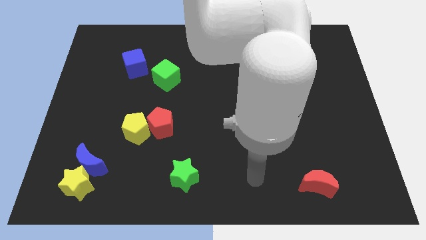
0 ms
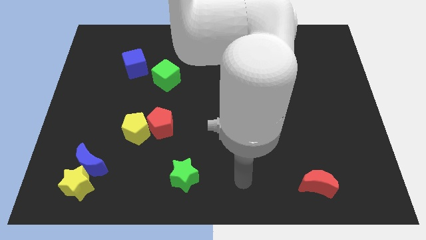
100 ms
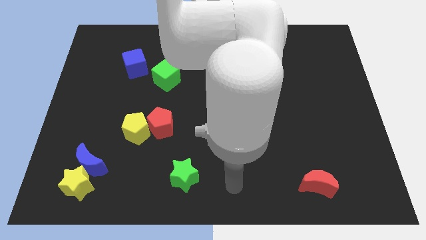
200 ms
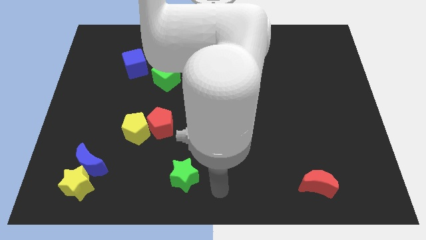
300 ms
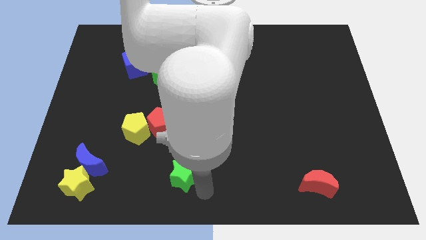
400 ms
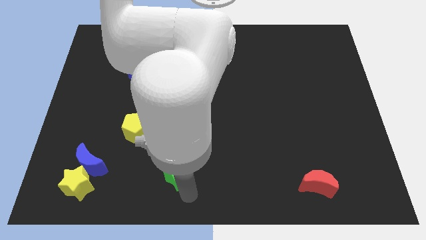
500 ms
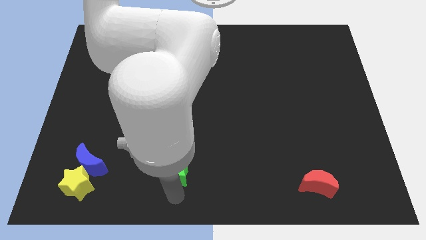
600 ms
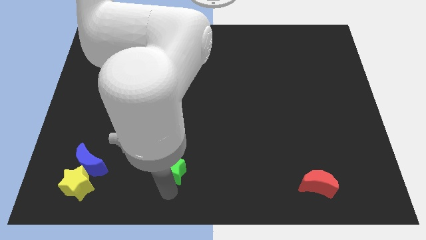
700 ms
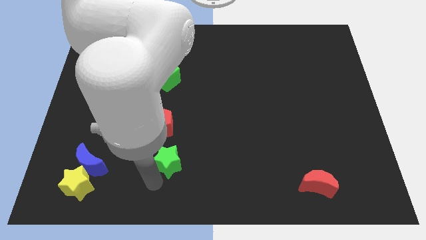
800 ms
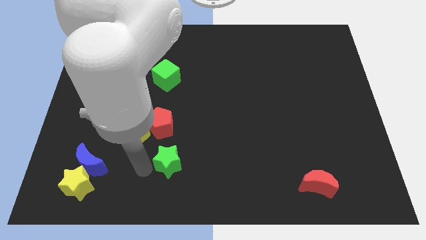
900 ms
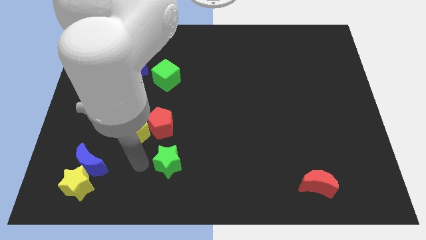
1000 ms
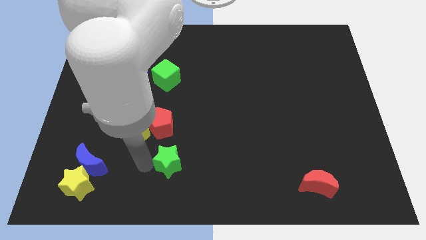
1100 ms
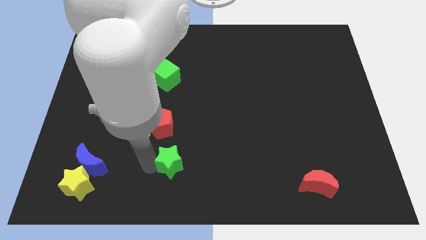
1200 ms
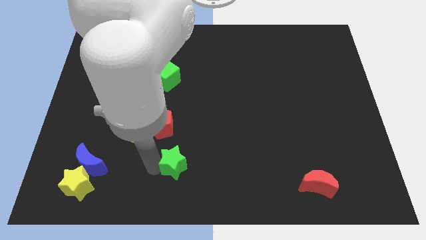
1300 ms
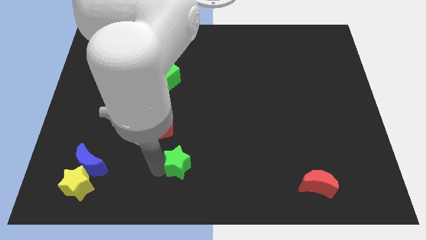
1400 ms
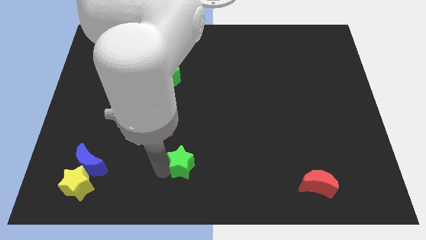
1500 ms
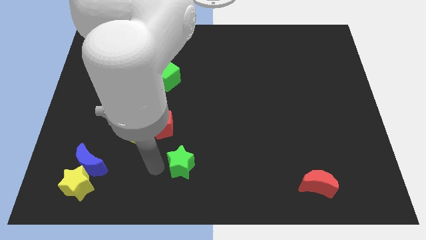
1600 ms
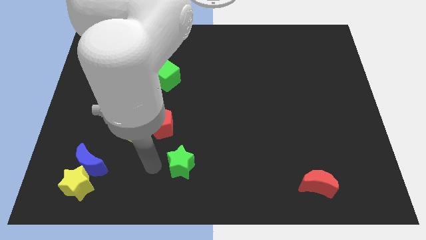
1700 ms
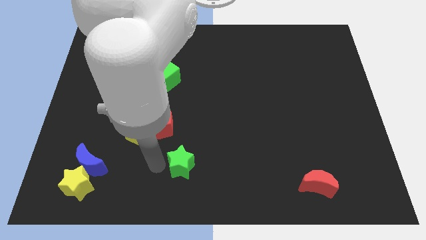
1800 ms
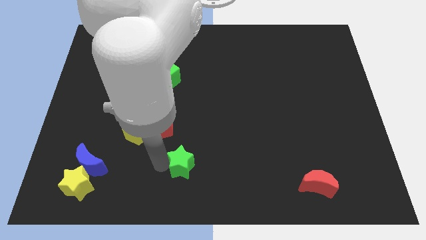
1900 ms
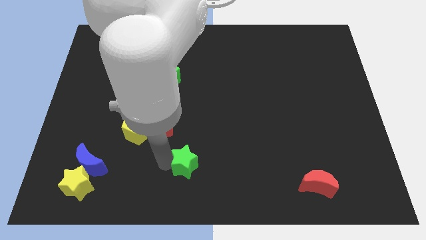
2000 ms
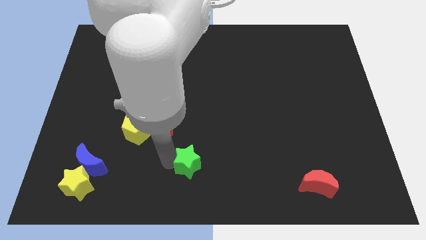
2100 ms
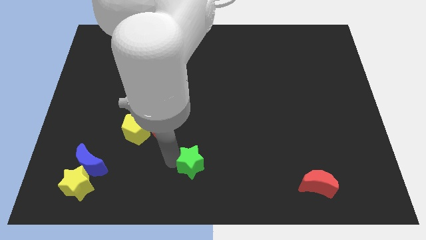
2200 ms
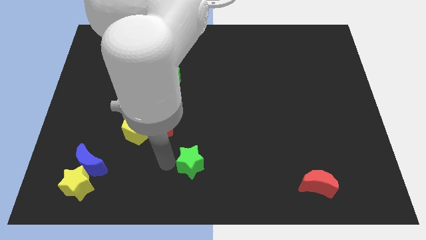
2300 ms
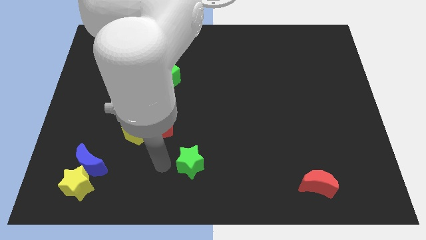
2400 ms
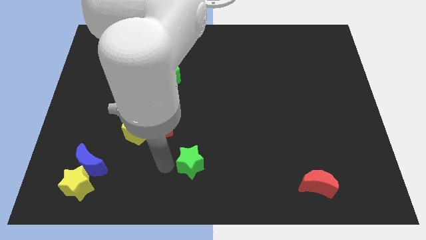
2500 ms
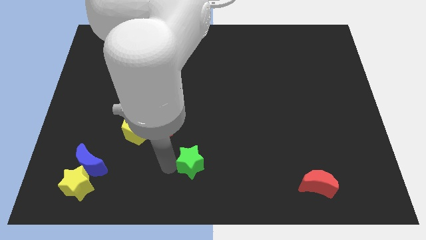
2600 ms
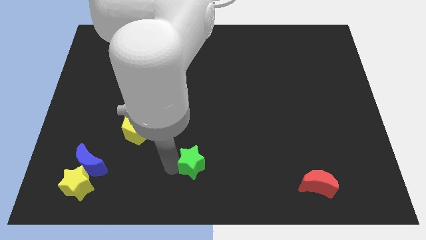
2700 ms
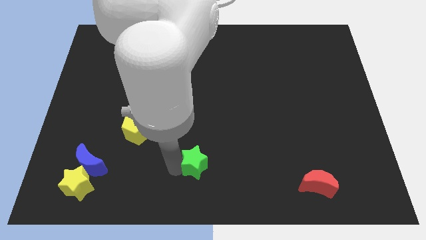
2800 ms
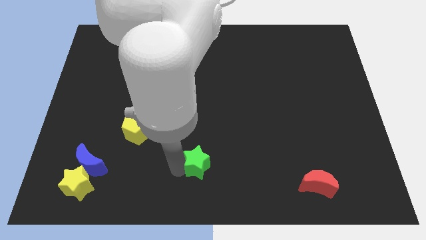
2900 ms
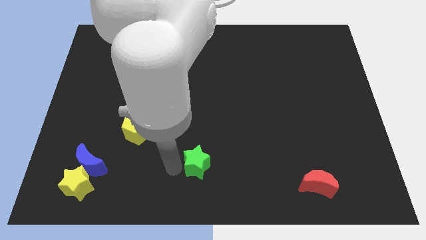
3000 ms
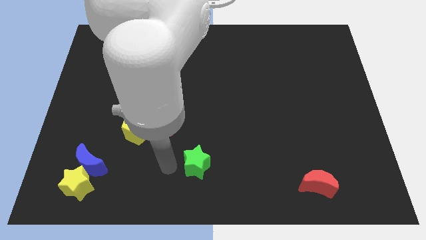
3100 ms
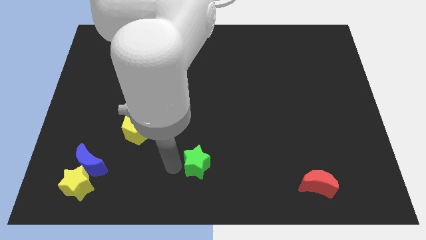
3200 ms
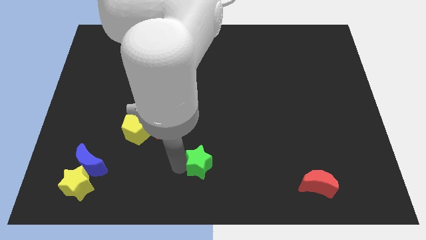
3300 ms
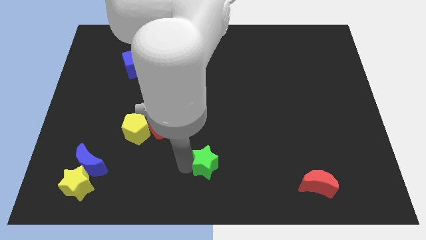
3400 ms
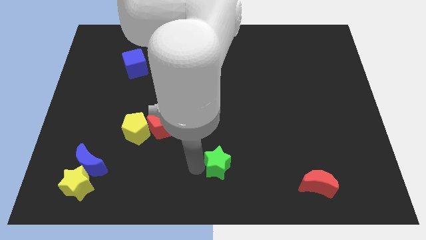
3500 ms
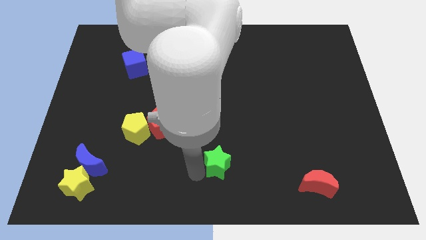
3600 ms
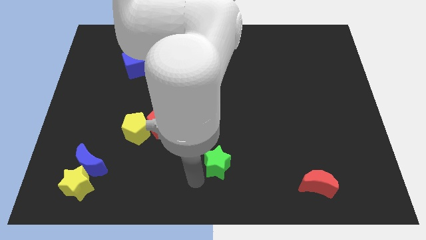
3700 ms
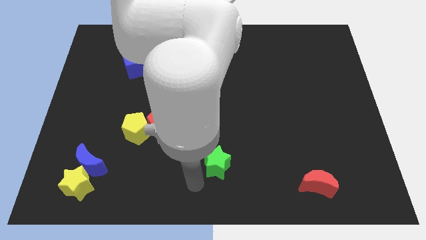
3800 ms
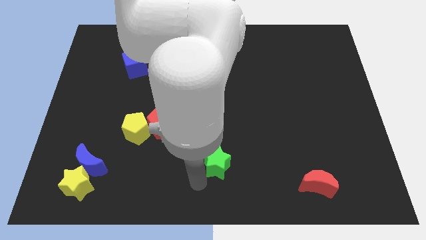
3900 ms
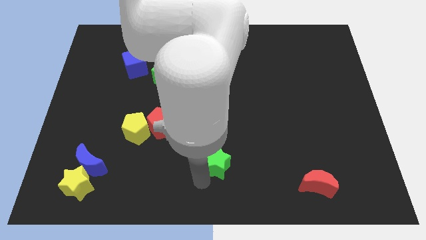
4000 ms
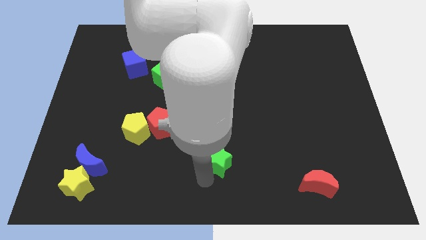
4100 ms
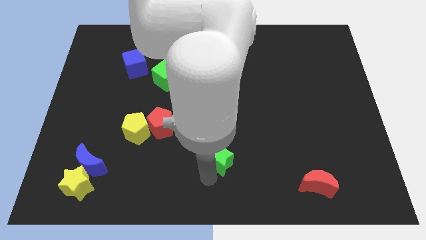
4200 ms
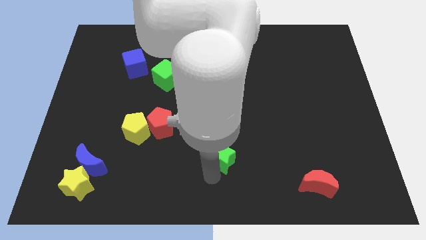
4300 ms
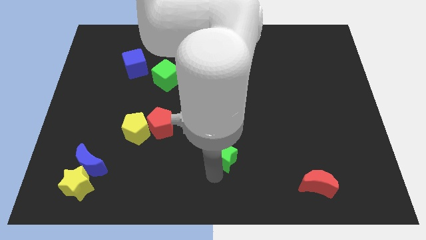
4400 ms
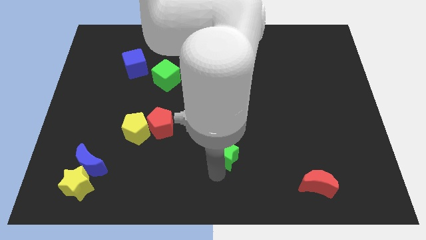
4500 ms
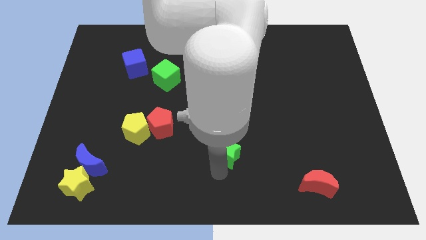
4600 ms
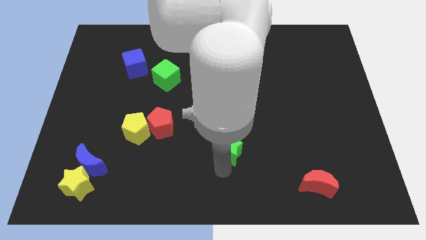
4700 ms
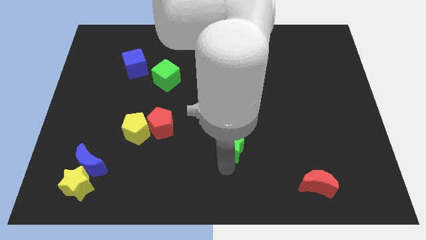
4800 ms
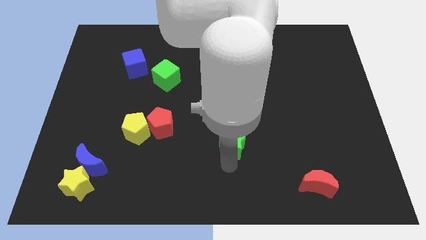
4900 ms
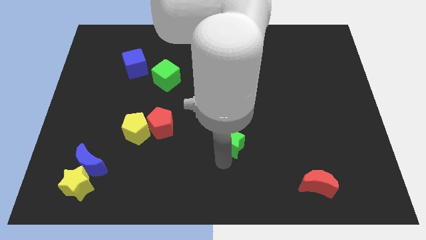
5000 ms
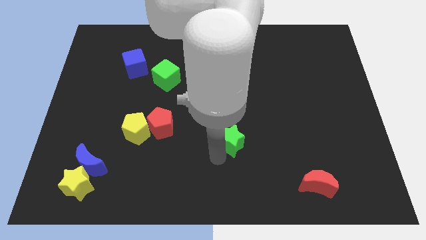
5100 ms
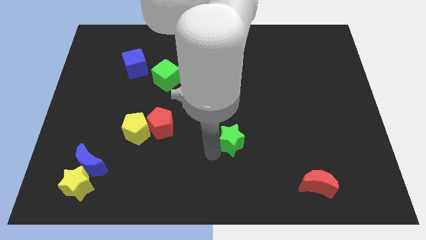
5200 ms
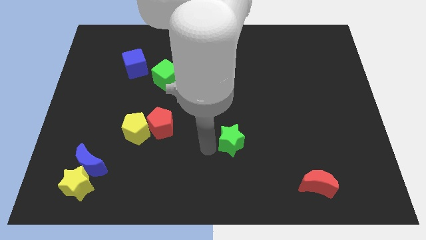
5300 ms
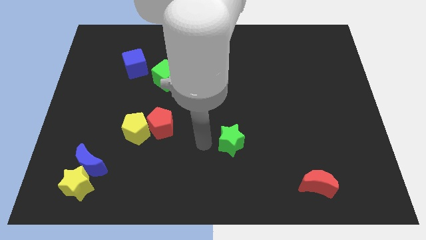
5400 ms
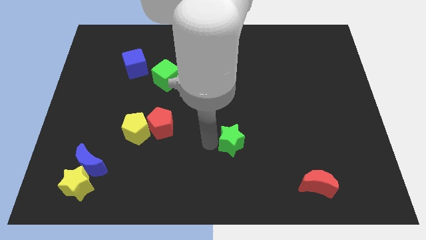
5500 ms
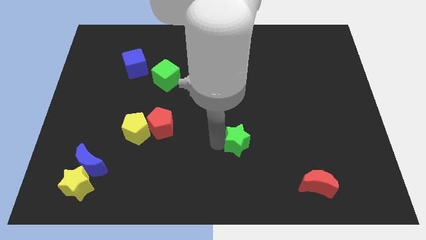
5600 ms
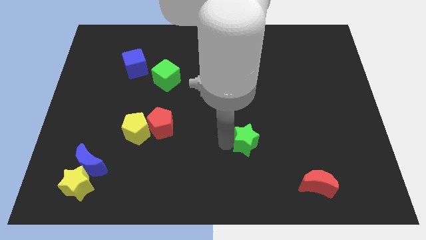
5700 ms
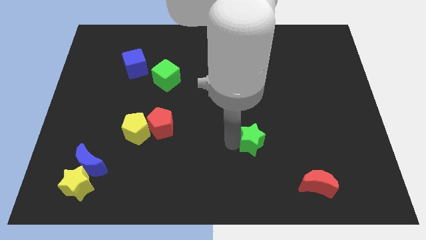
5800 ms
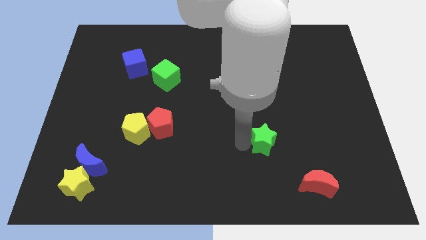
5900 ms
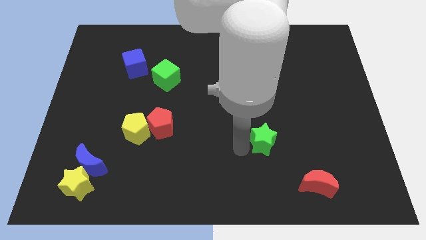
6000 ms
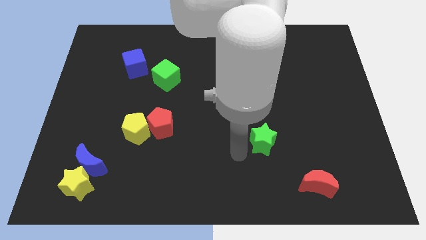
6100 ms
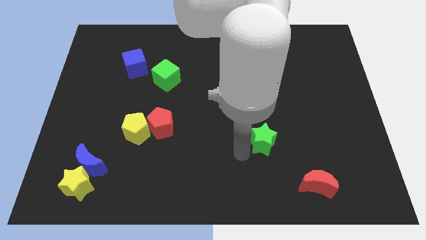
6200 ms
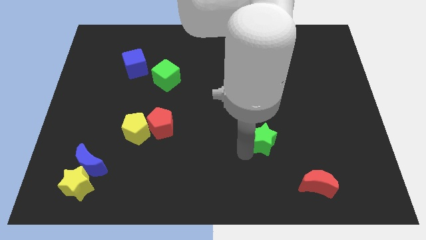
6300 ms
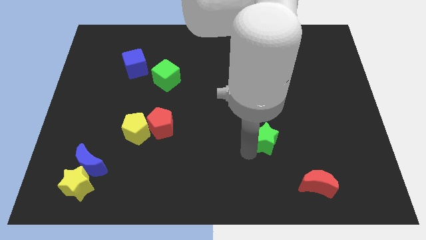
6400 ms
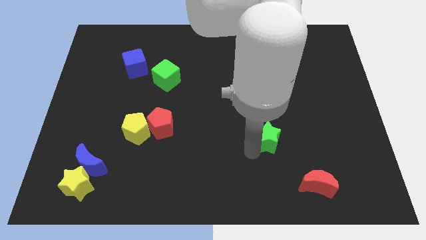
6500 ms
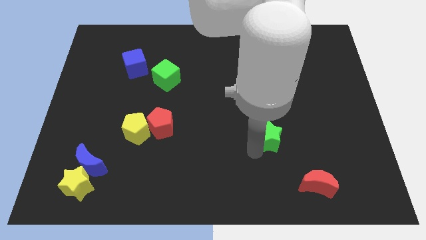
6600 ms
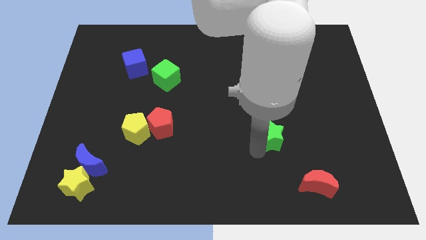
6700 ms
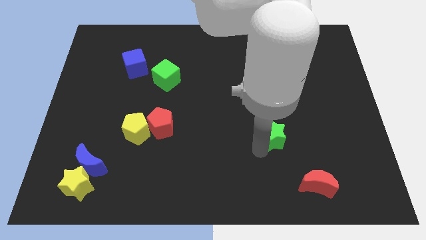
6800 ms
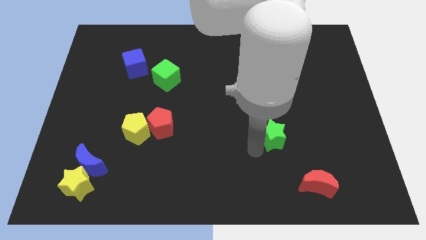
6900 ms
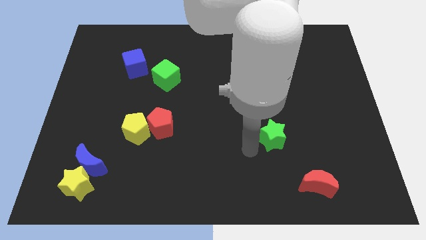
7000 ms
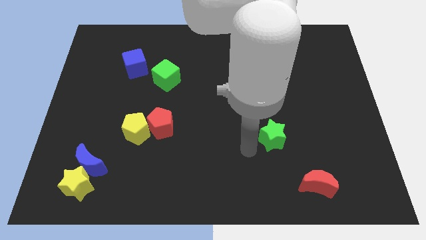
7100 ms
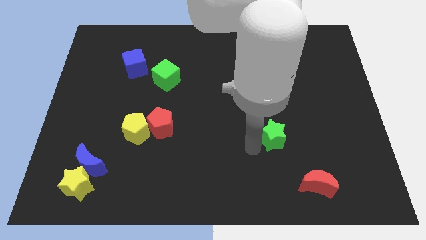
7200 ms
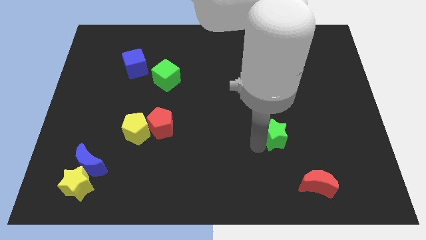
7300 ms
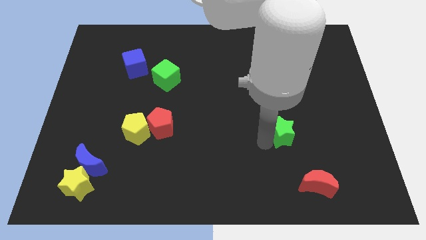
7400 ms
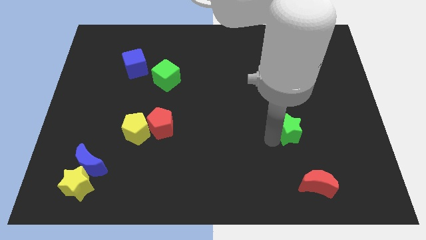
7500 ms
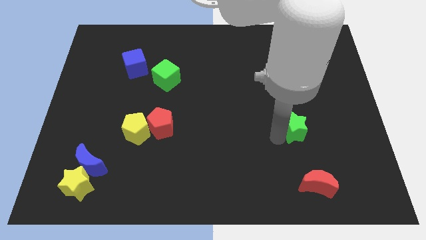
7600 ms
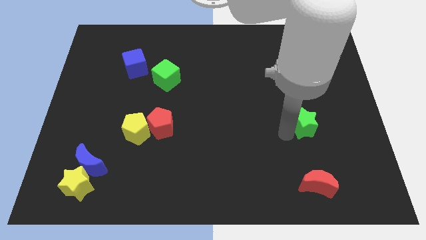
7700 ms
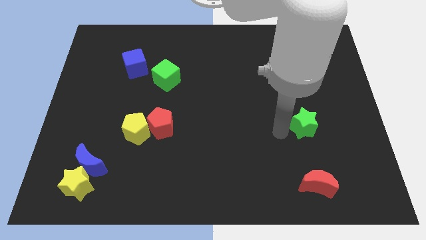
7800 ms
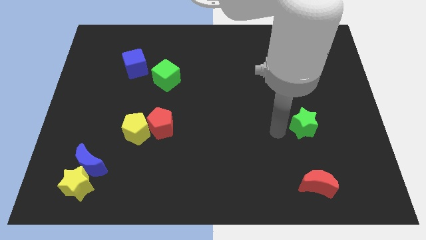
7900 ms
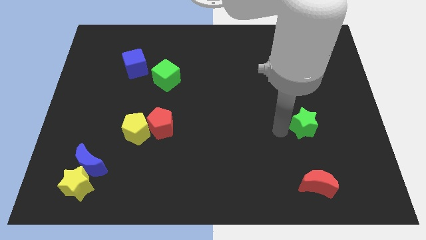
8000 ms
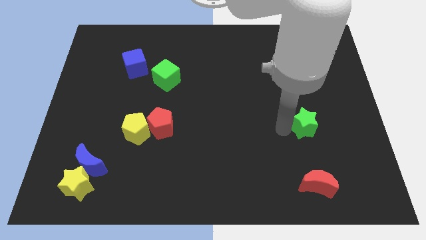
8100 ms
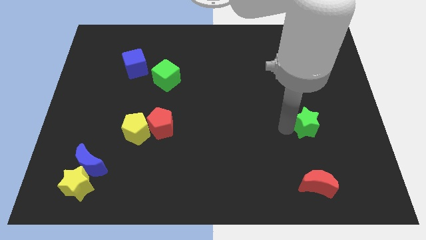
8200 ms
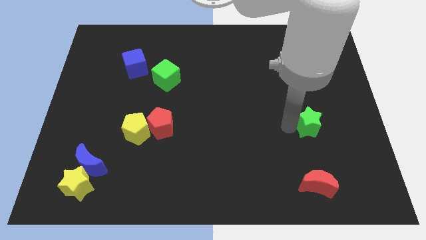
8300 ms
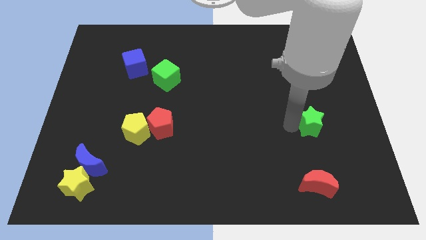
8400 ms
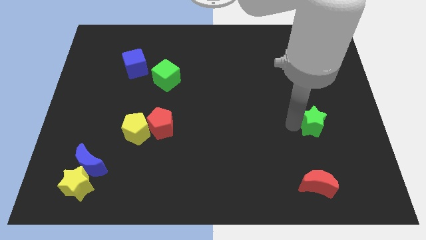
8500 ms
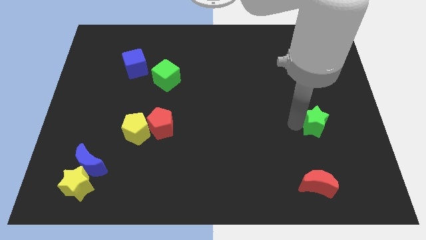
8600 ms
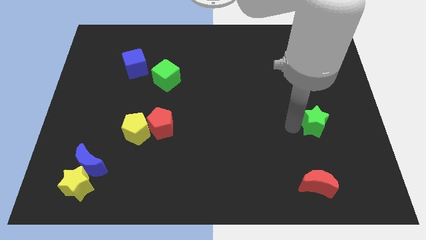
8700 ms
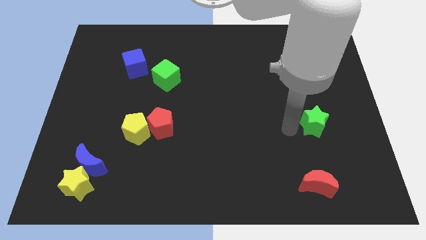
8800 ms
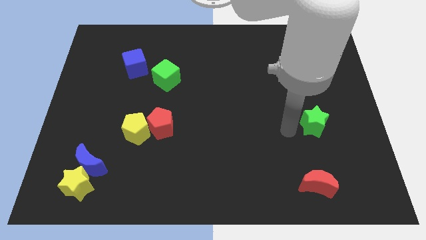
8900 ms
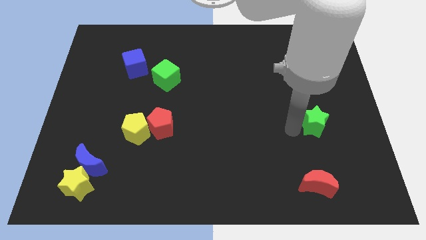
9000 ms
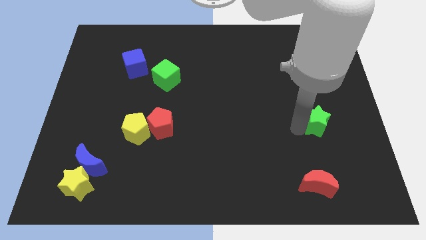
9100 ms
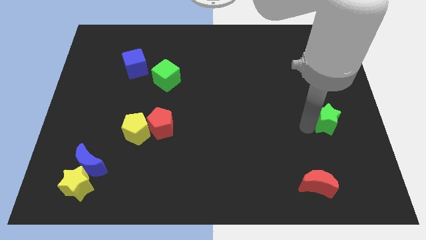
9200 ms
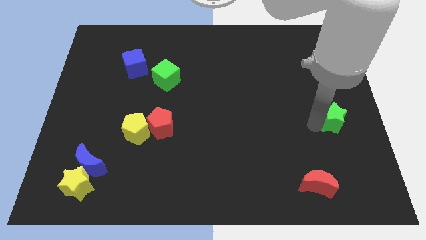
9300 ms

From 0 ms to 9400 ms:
move the green star to the right side
